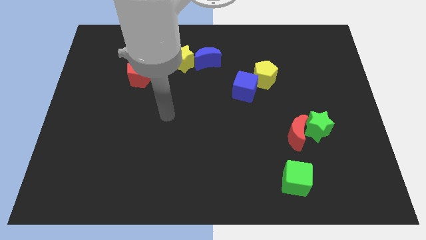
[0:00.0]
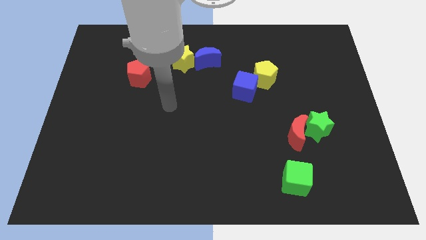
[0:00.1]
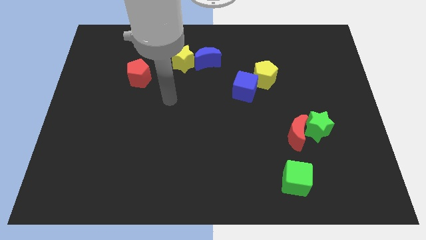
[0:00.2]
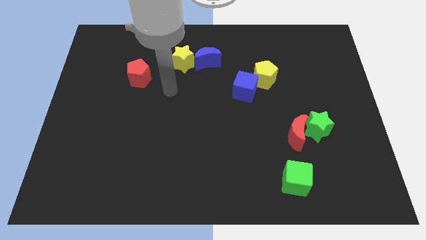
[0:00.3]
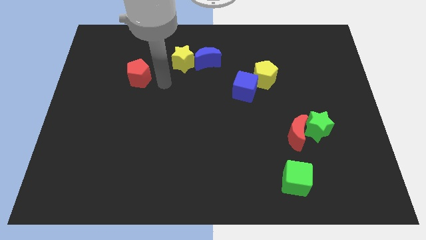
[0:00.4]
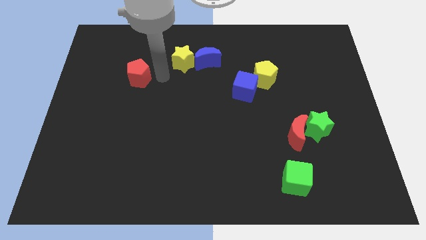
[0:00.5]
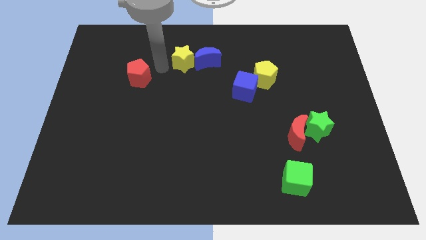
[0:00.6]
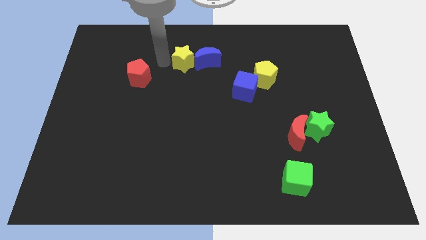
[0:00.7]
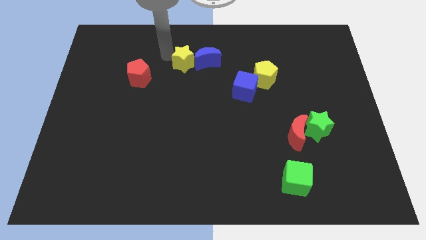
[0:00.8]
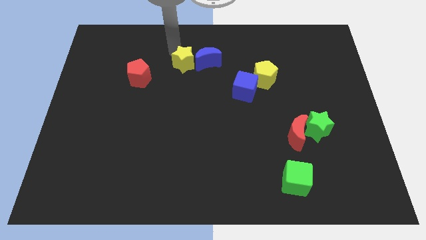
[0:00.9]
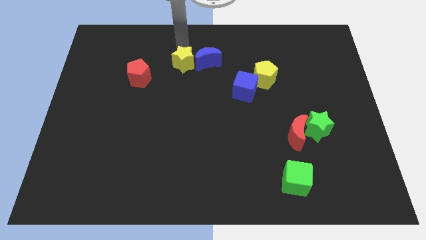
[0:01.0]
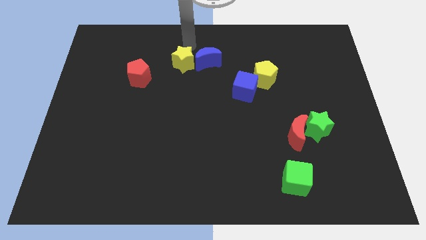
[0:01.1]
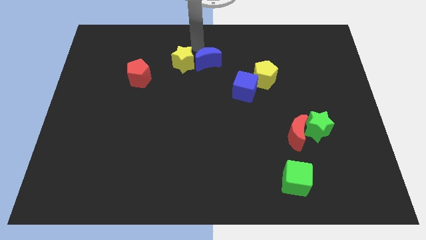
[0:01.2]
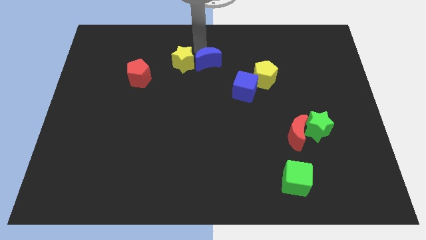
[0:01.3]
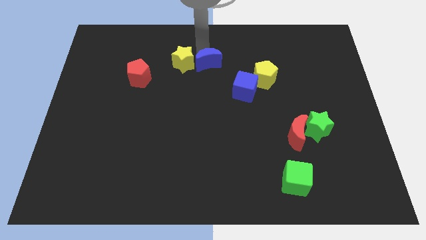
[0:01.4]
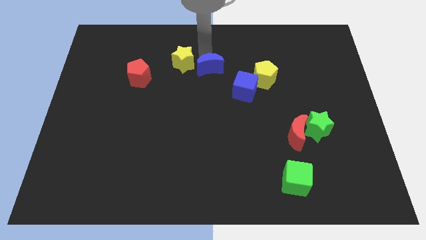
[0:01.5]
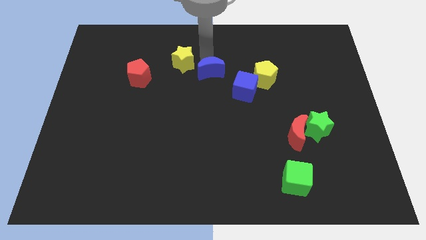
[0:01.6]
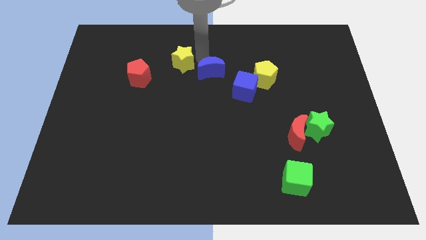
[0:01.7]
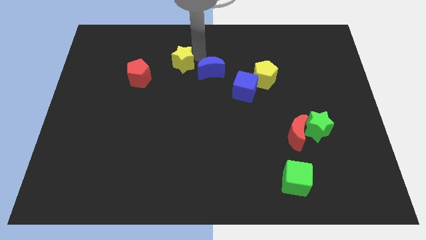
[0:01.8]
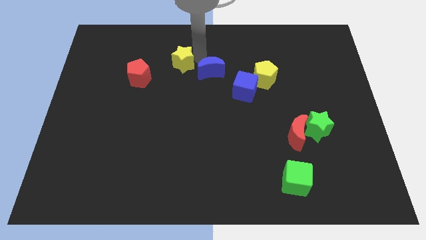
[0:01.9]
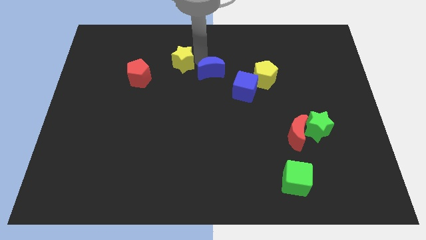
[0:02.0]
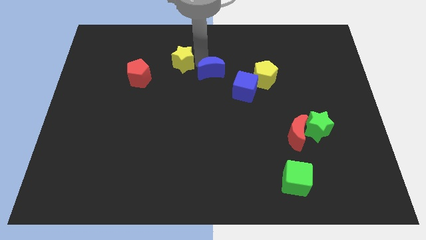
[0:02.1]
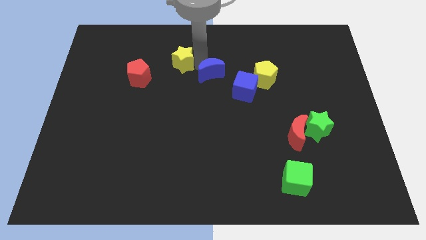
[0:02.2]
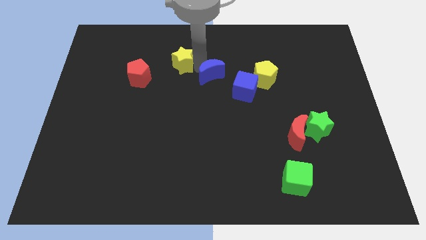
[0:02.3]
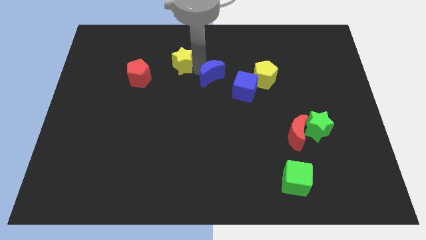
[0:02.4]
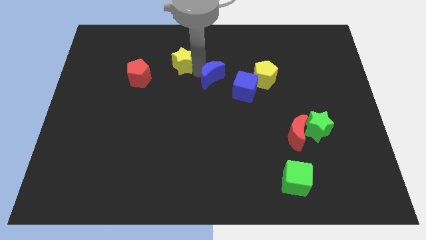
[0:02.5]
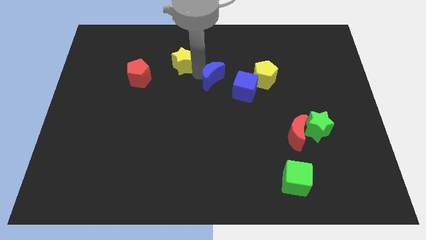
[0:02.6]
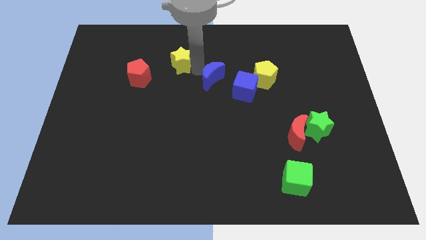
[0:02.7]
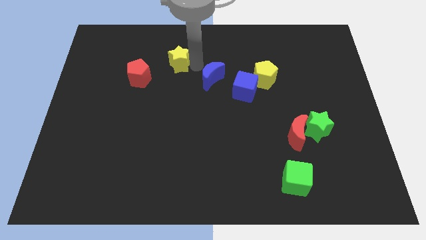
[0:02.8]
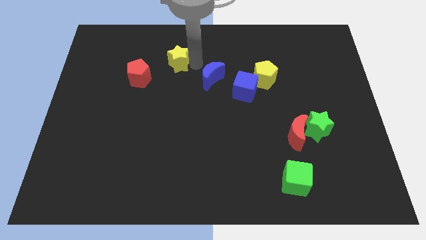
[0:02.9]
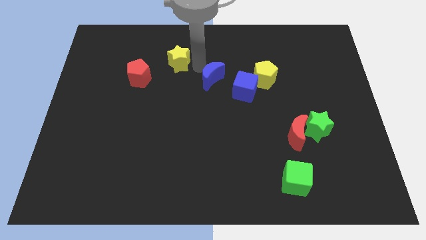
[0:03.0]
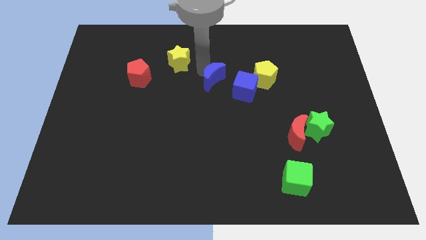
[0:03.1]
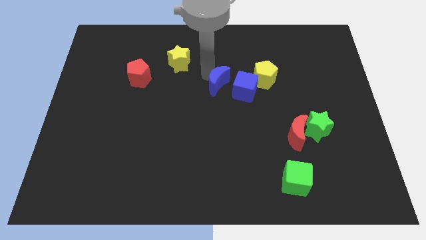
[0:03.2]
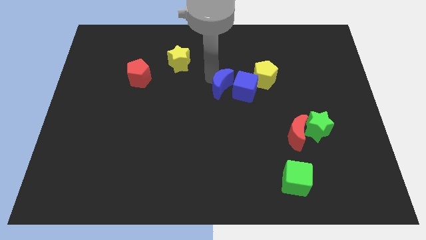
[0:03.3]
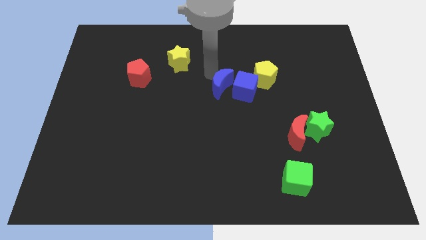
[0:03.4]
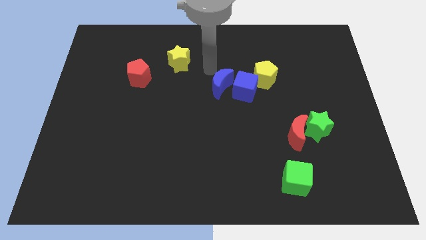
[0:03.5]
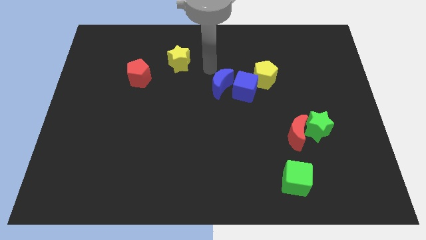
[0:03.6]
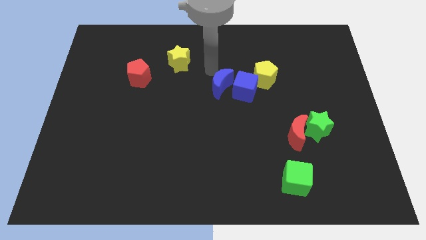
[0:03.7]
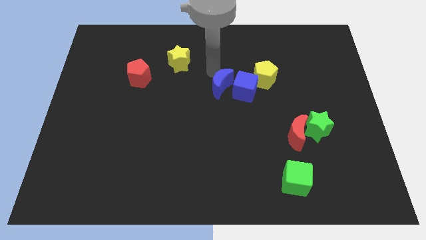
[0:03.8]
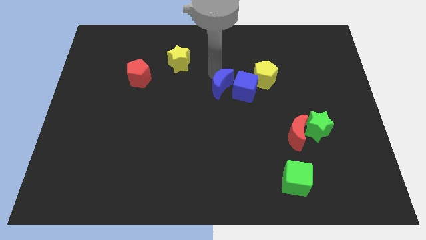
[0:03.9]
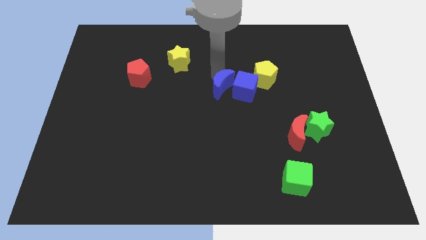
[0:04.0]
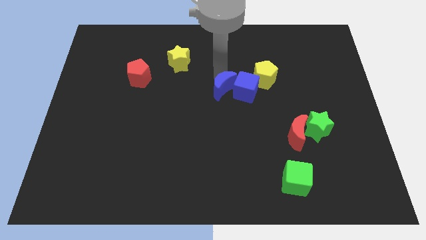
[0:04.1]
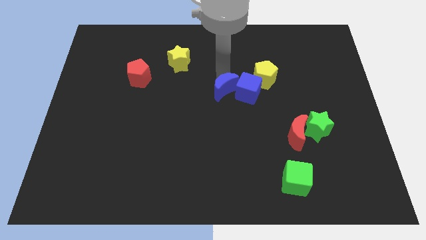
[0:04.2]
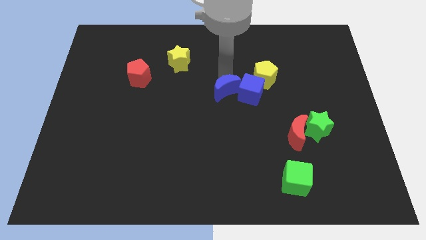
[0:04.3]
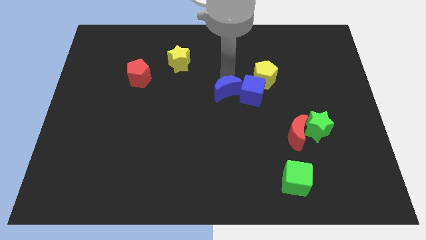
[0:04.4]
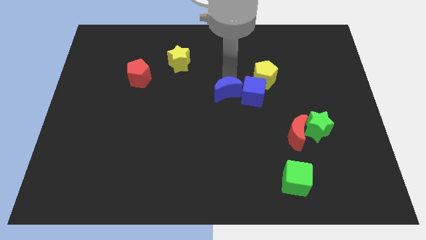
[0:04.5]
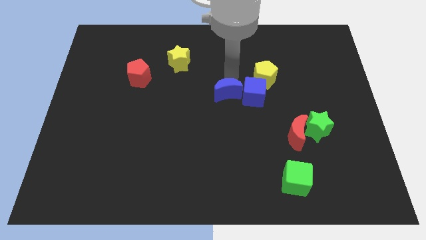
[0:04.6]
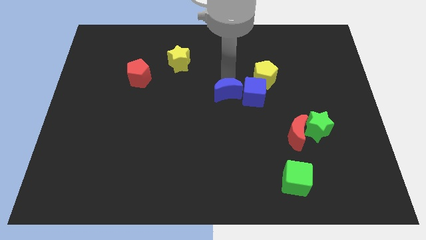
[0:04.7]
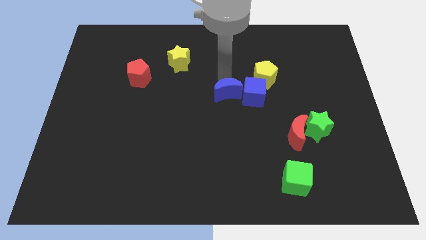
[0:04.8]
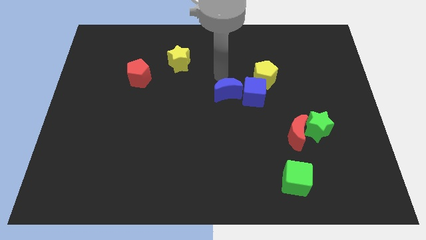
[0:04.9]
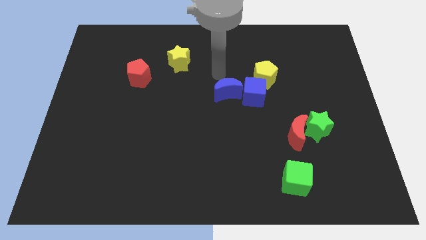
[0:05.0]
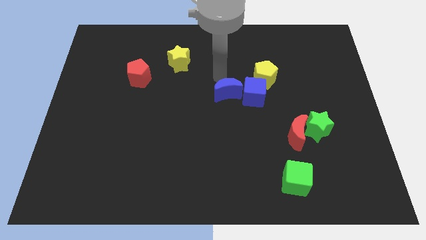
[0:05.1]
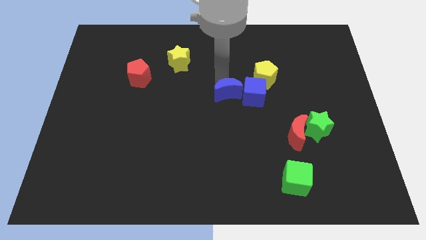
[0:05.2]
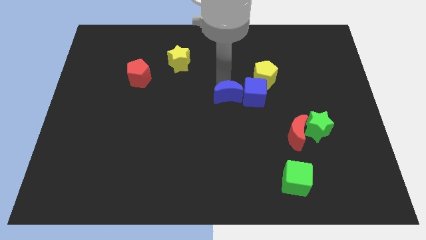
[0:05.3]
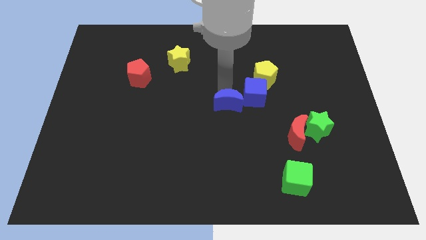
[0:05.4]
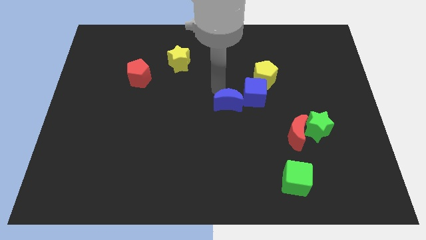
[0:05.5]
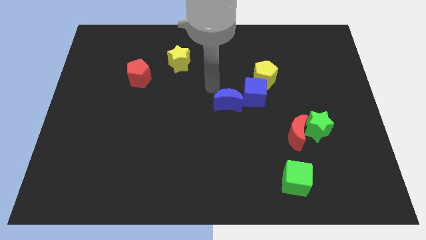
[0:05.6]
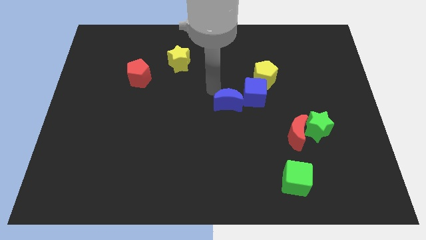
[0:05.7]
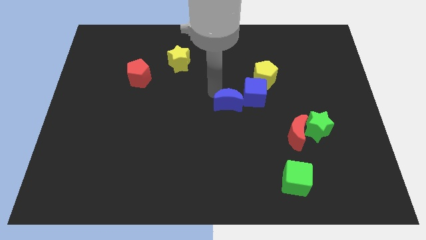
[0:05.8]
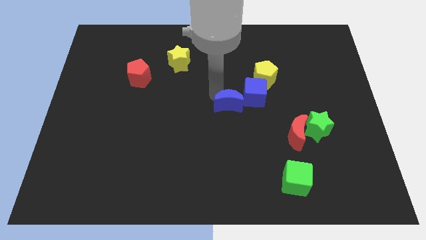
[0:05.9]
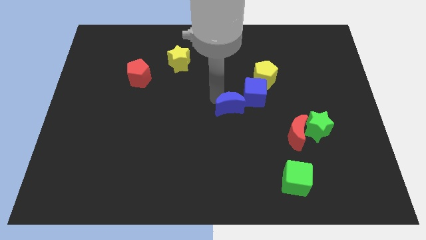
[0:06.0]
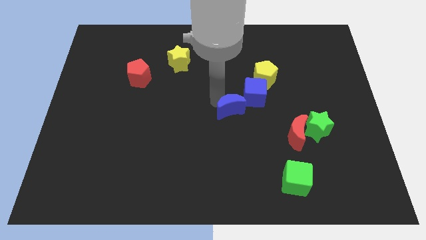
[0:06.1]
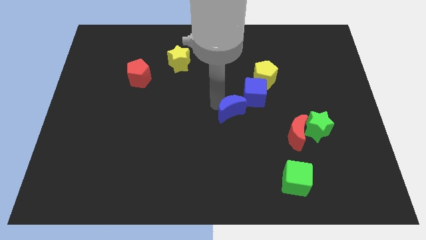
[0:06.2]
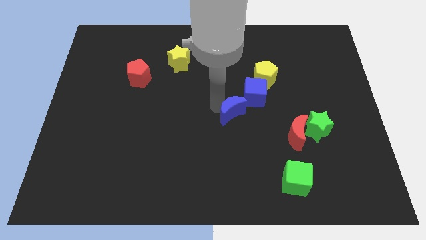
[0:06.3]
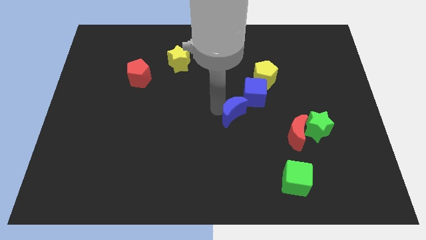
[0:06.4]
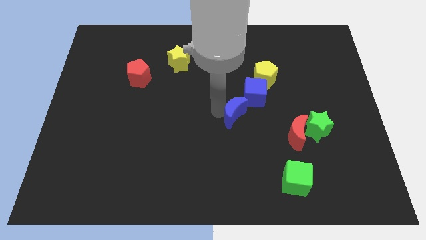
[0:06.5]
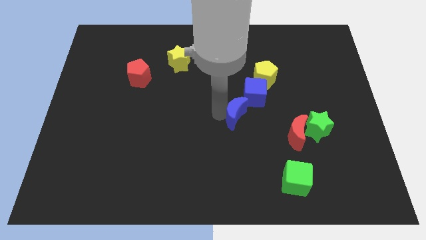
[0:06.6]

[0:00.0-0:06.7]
put the blue moon to the bottom side of the blue cube

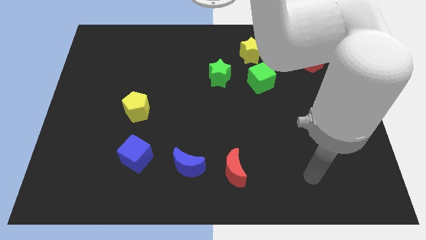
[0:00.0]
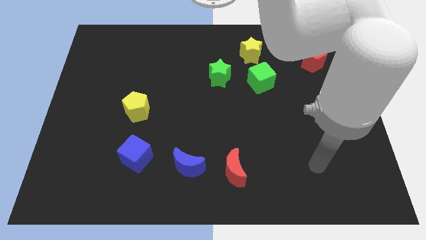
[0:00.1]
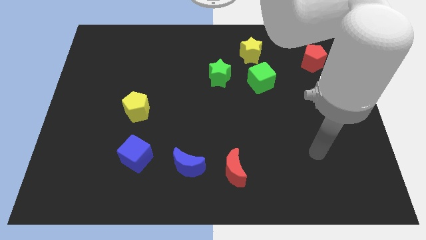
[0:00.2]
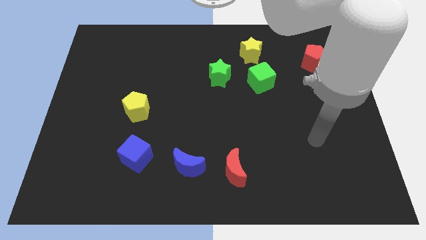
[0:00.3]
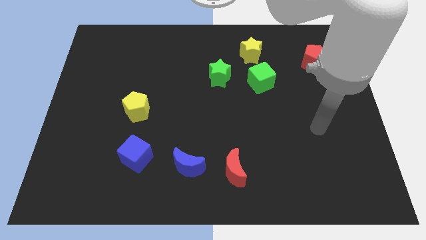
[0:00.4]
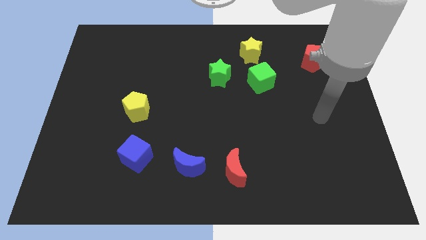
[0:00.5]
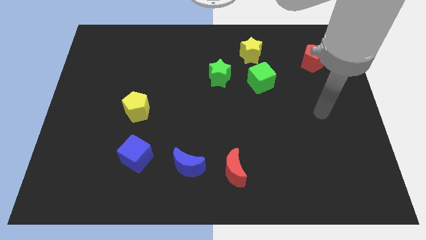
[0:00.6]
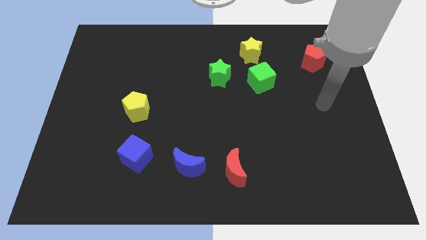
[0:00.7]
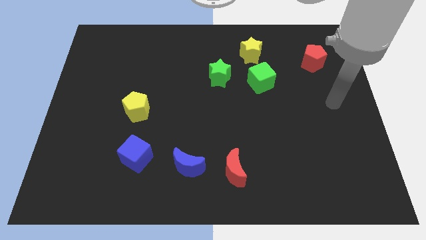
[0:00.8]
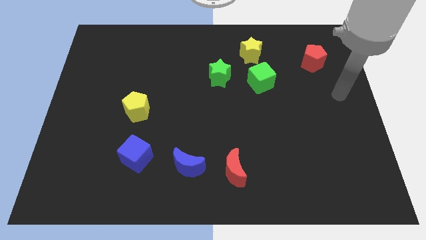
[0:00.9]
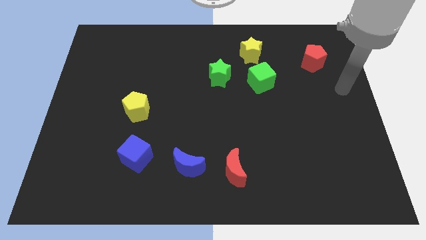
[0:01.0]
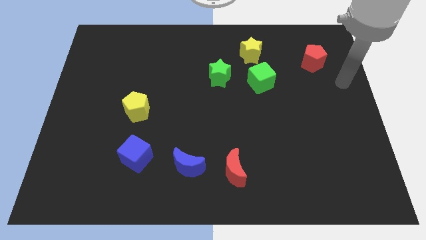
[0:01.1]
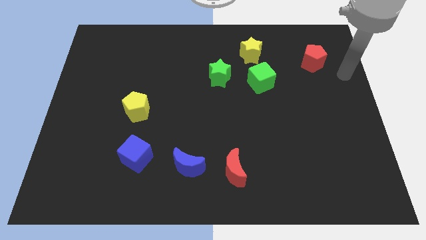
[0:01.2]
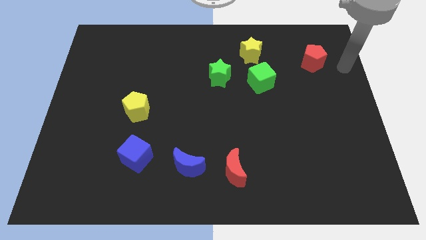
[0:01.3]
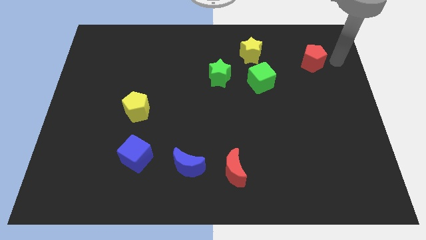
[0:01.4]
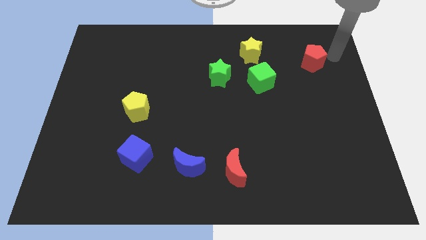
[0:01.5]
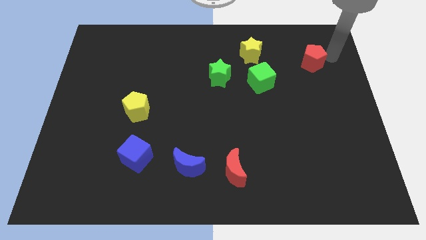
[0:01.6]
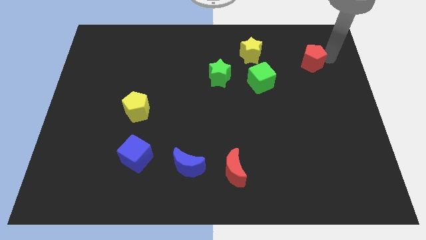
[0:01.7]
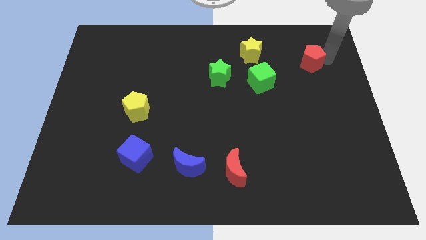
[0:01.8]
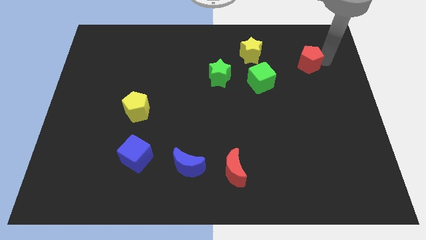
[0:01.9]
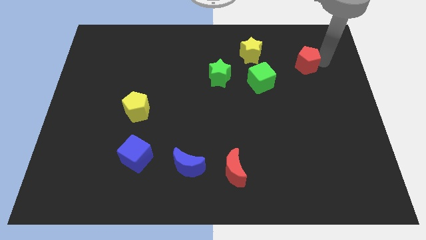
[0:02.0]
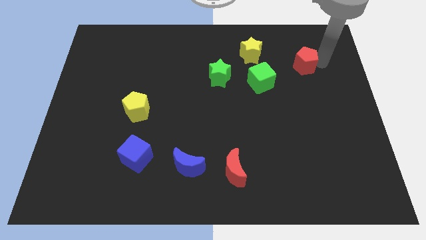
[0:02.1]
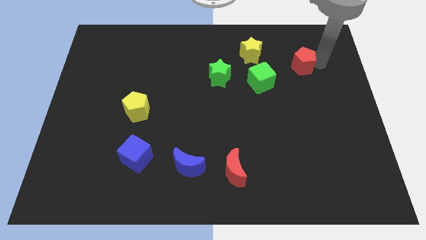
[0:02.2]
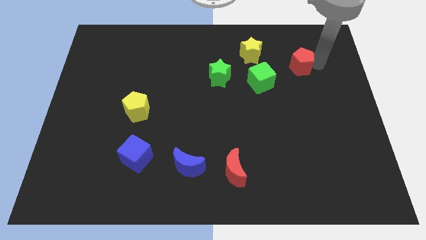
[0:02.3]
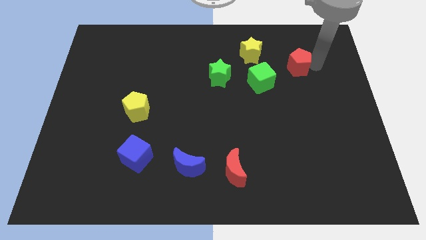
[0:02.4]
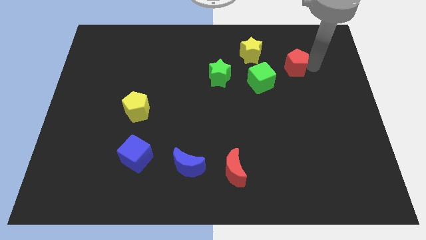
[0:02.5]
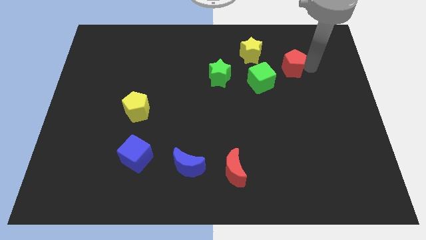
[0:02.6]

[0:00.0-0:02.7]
move the red pentagon to the bottom right of the yellow star
